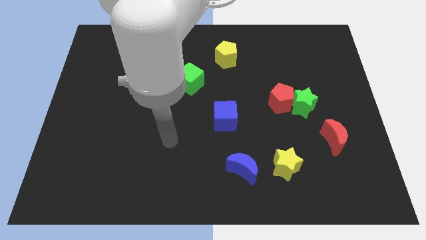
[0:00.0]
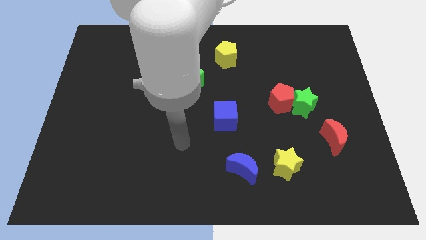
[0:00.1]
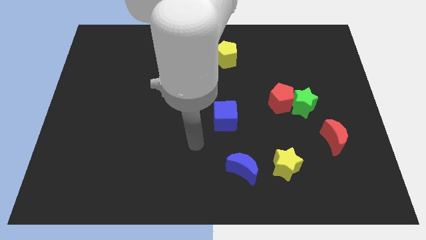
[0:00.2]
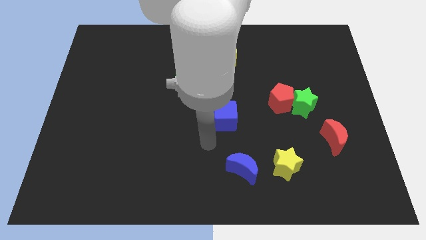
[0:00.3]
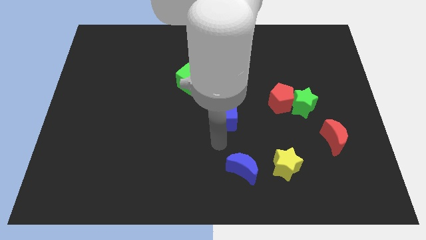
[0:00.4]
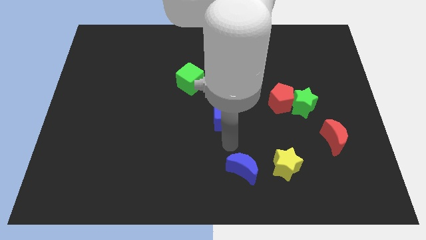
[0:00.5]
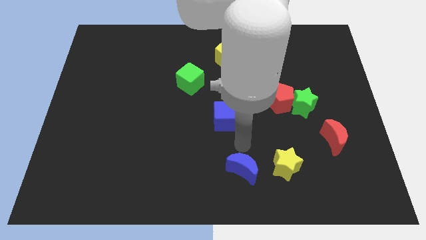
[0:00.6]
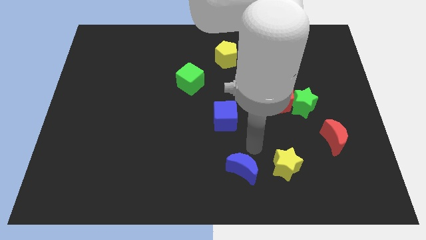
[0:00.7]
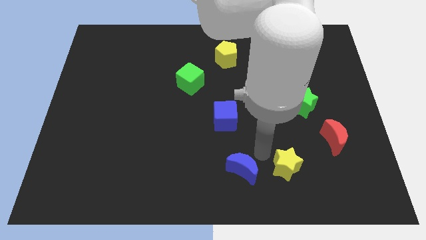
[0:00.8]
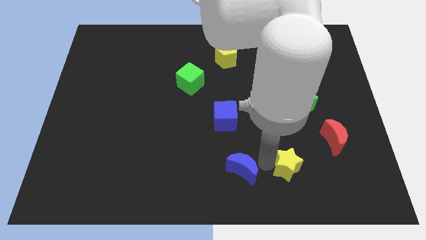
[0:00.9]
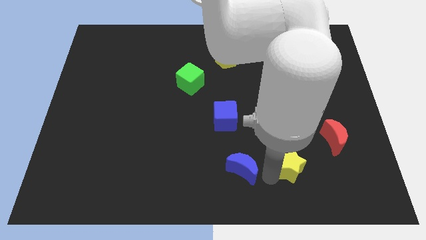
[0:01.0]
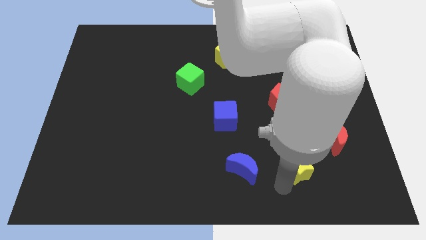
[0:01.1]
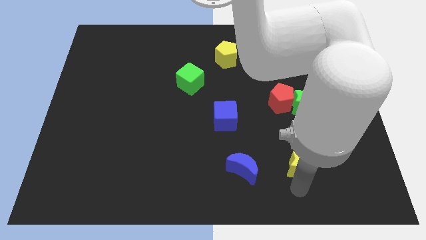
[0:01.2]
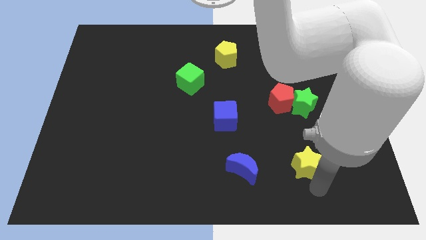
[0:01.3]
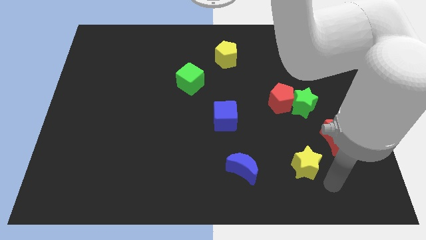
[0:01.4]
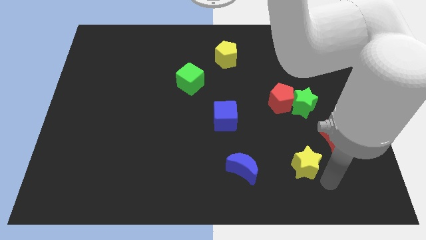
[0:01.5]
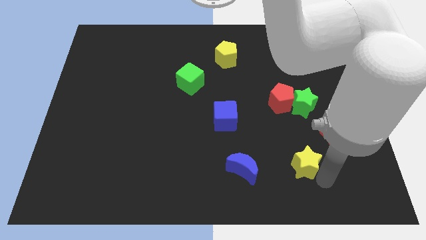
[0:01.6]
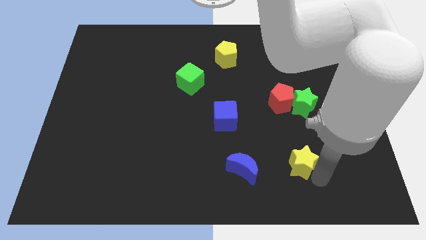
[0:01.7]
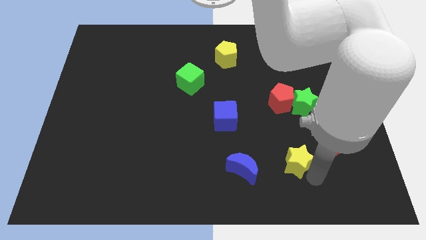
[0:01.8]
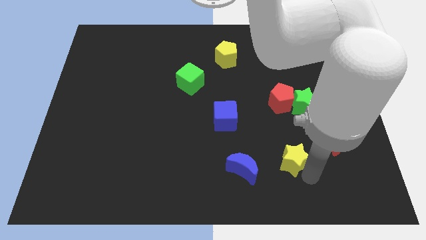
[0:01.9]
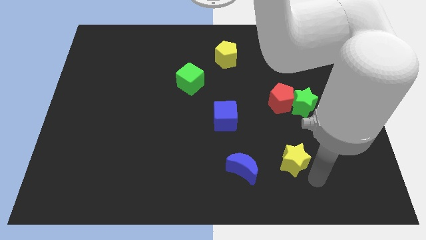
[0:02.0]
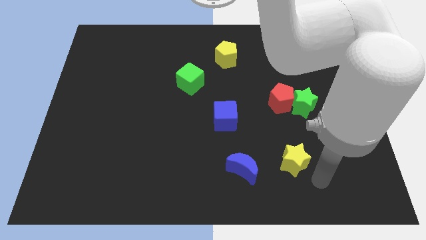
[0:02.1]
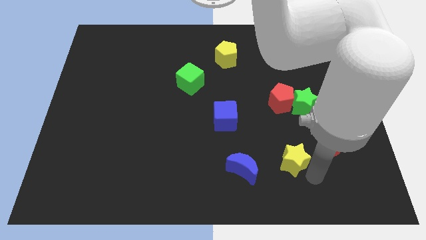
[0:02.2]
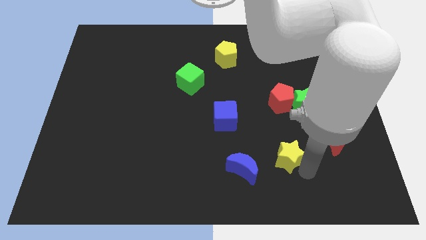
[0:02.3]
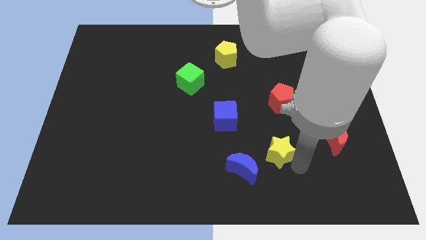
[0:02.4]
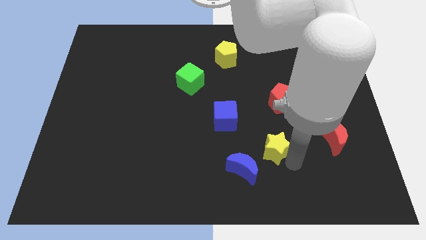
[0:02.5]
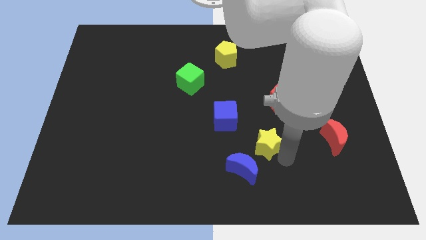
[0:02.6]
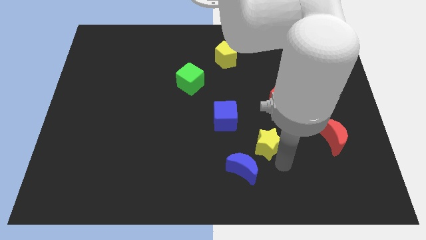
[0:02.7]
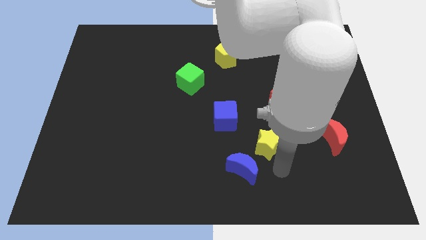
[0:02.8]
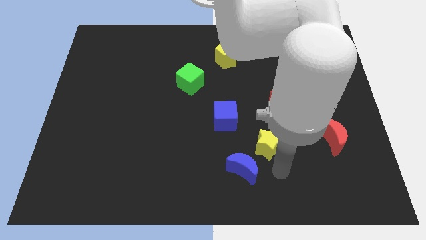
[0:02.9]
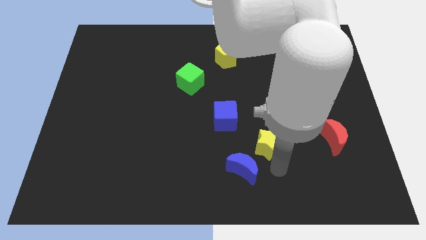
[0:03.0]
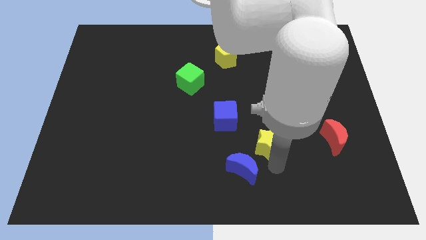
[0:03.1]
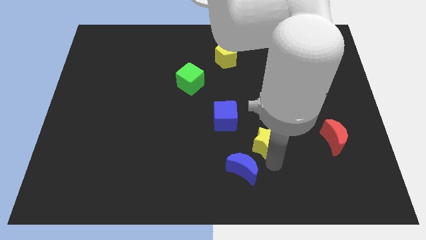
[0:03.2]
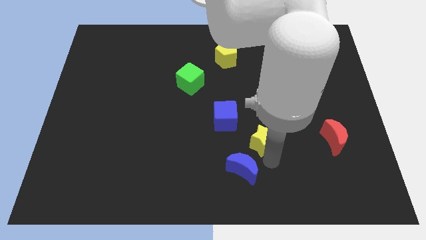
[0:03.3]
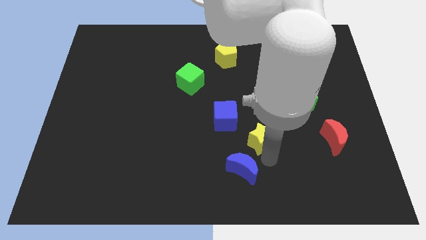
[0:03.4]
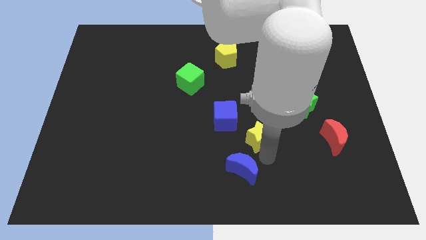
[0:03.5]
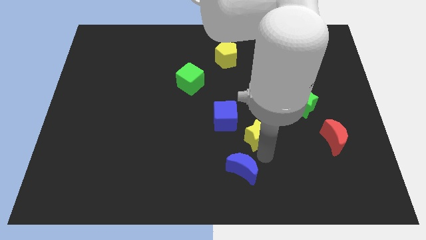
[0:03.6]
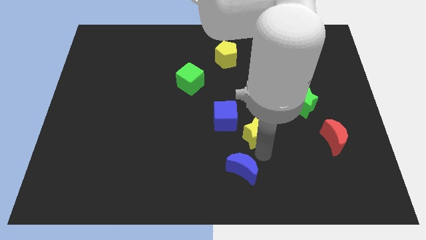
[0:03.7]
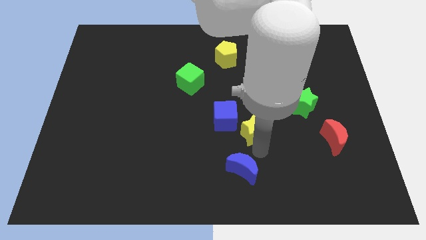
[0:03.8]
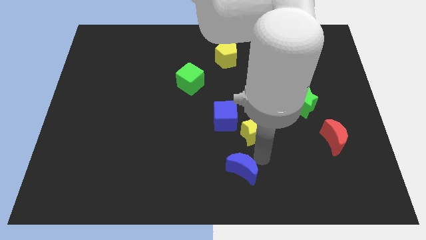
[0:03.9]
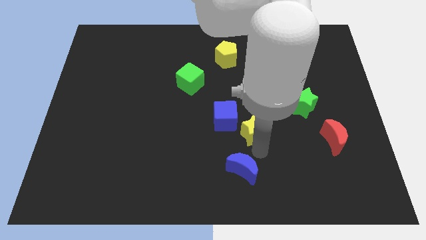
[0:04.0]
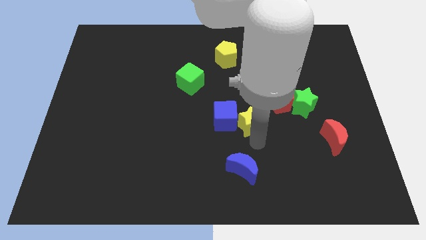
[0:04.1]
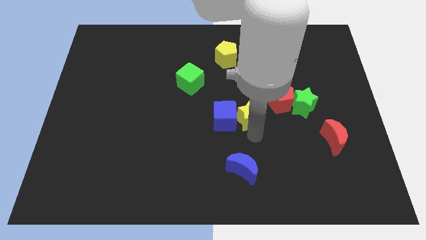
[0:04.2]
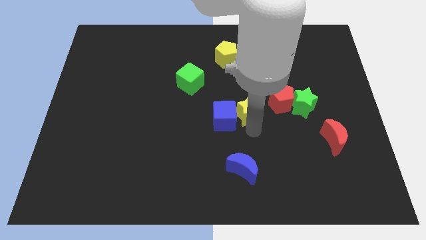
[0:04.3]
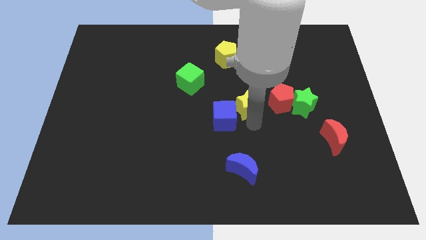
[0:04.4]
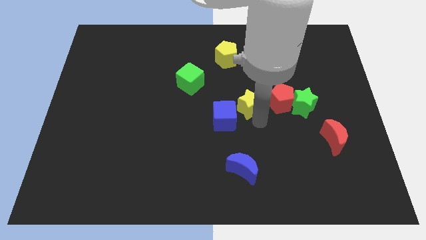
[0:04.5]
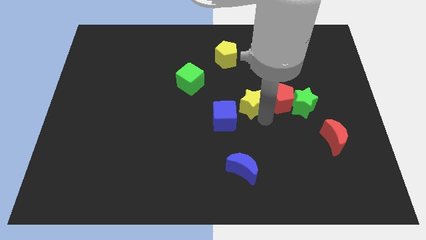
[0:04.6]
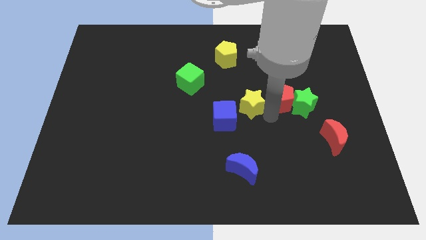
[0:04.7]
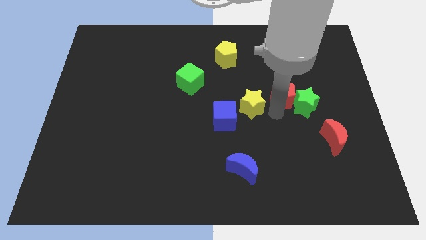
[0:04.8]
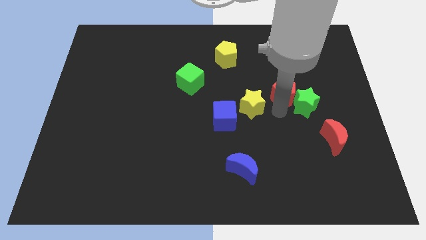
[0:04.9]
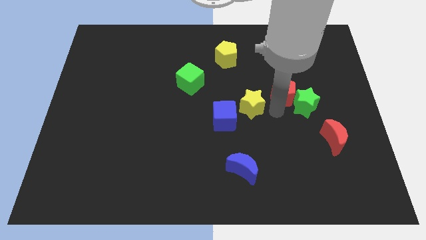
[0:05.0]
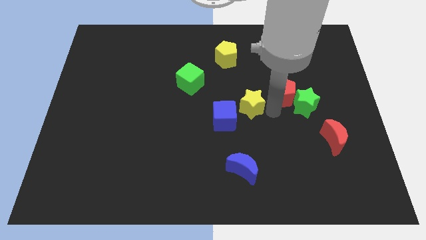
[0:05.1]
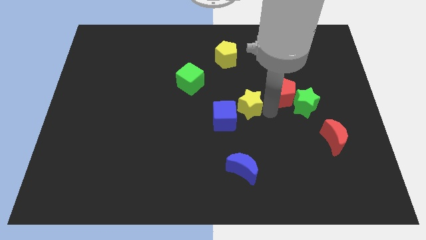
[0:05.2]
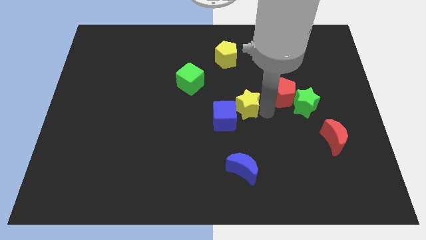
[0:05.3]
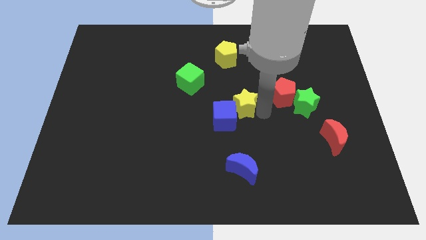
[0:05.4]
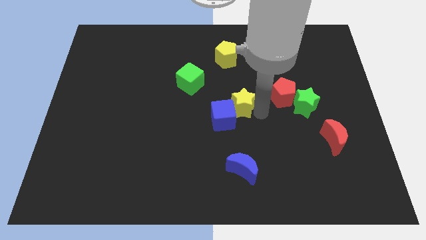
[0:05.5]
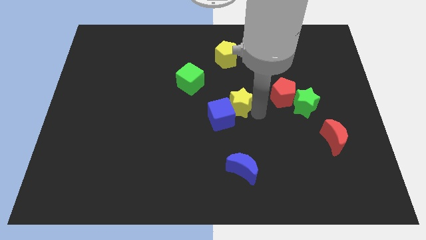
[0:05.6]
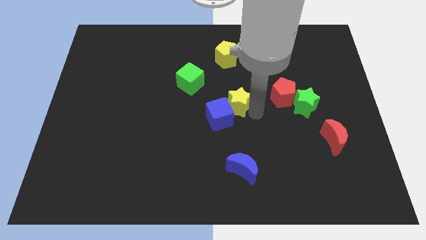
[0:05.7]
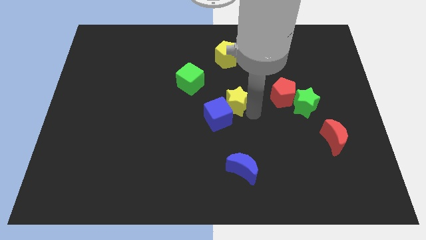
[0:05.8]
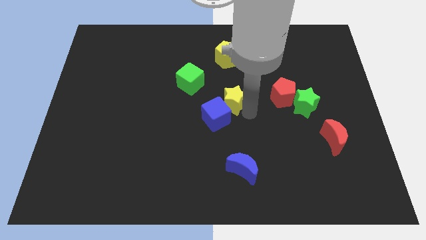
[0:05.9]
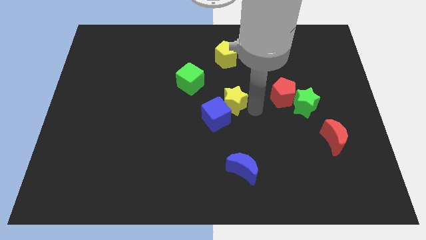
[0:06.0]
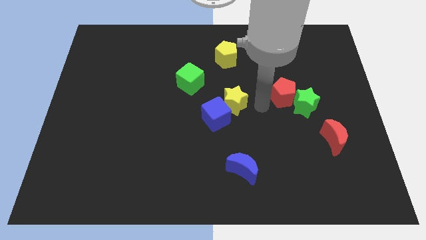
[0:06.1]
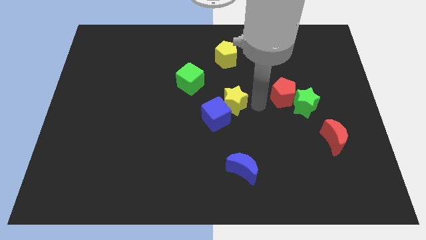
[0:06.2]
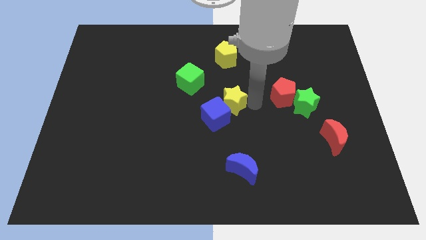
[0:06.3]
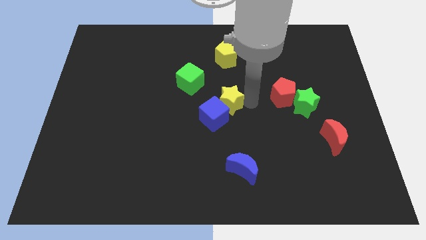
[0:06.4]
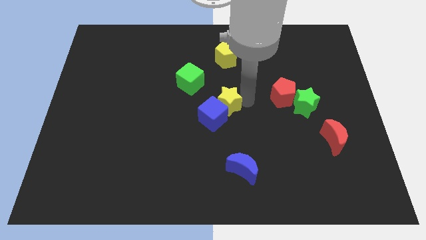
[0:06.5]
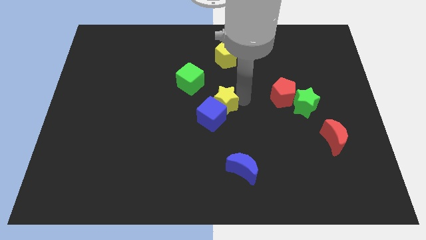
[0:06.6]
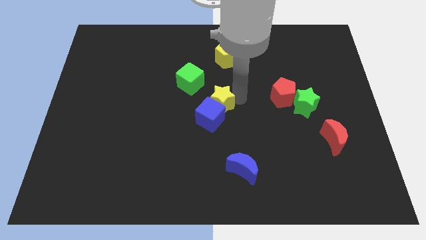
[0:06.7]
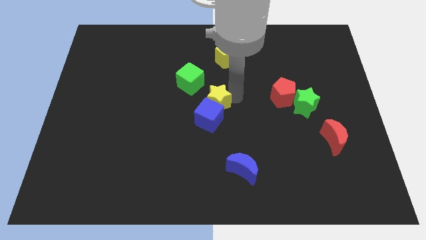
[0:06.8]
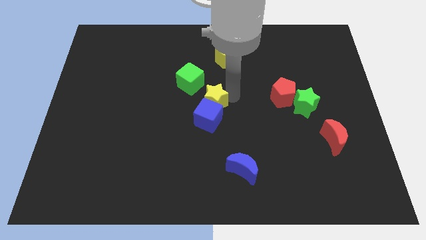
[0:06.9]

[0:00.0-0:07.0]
push the yellow star to the top left side of the blue cube
